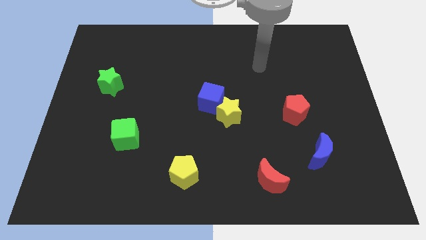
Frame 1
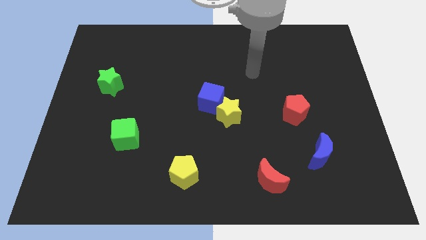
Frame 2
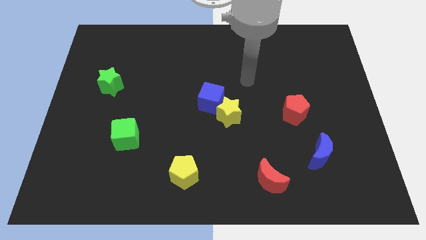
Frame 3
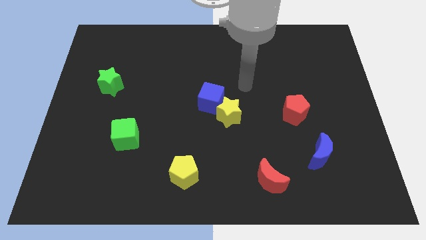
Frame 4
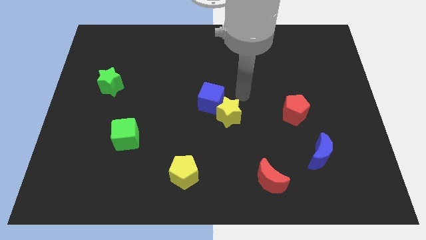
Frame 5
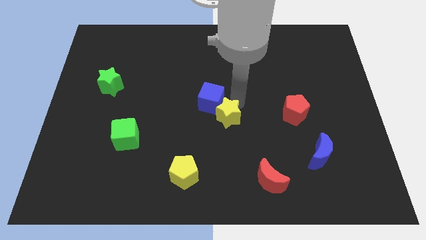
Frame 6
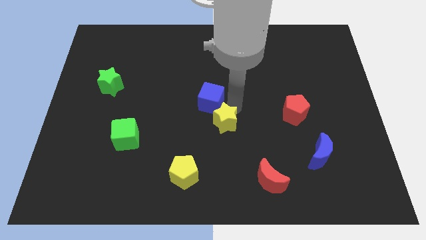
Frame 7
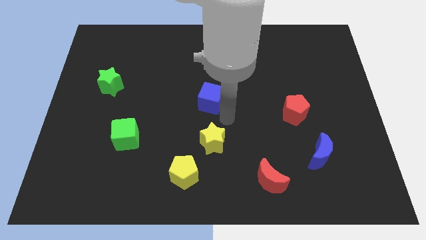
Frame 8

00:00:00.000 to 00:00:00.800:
move the blue cube away from the yellow star

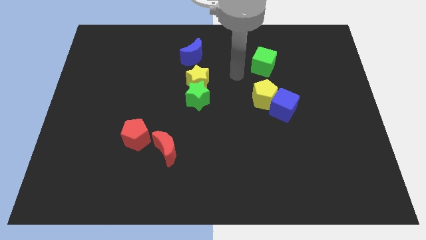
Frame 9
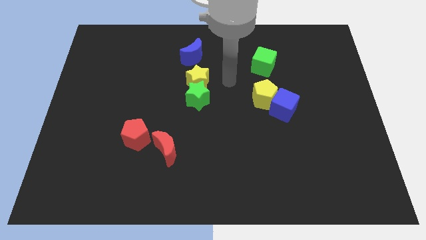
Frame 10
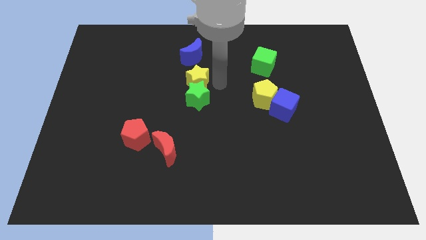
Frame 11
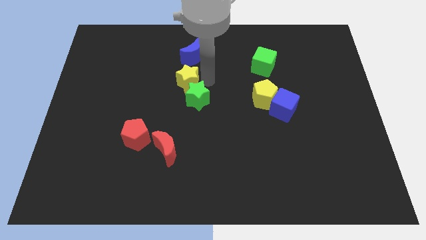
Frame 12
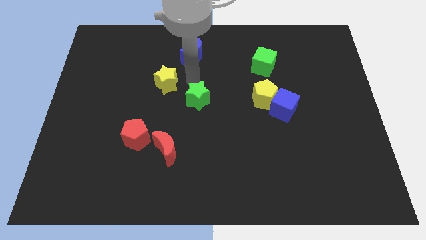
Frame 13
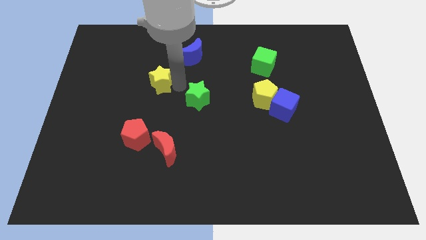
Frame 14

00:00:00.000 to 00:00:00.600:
move the green star away from the yellow star

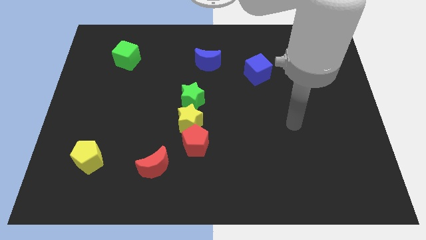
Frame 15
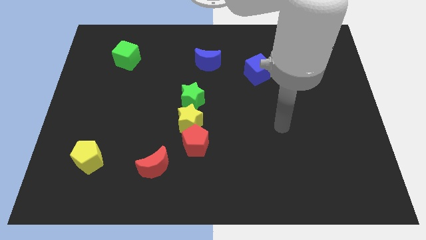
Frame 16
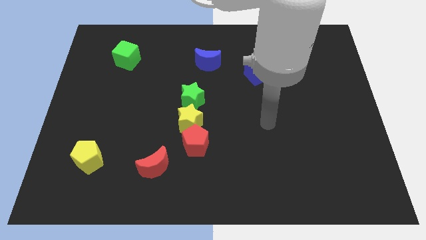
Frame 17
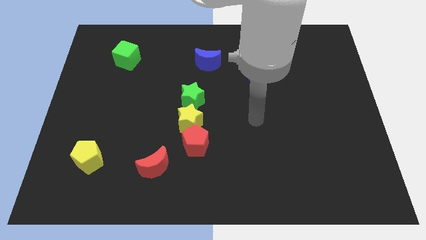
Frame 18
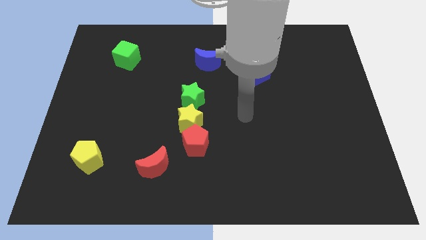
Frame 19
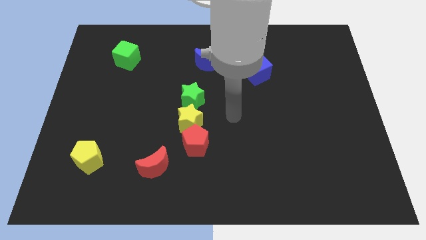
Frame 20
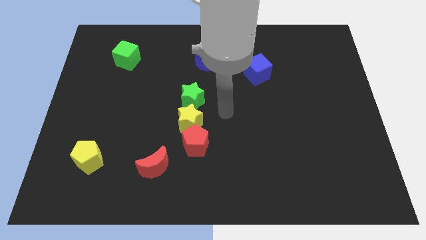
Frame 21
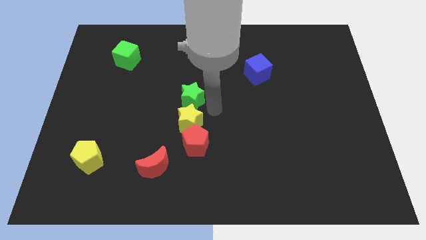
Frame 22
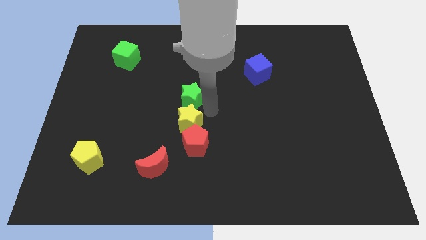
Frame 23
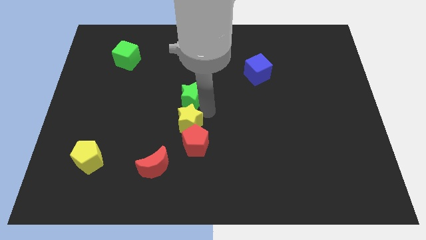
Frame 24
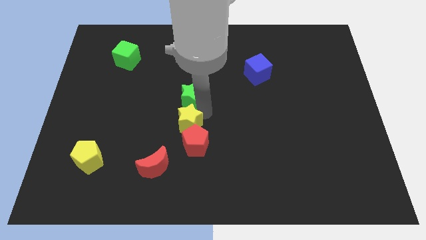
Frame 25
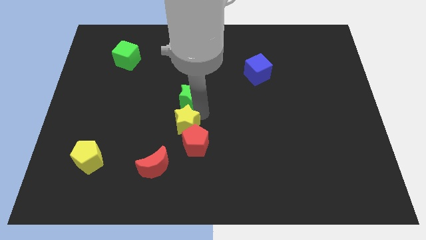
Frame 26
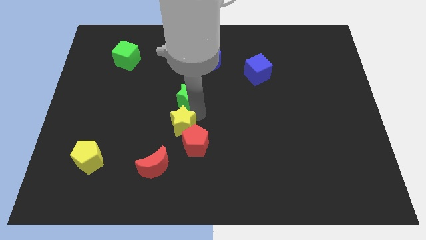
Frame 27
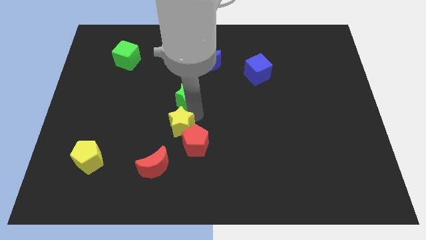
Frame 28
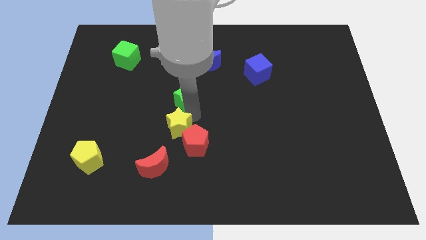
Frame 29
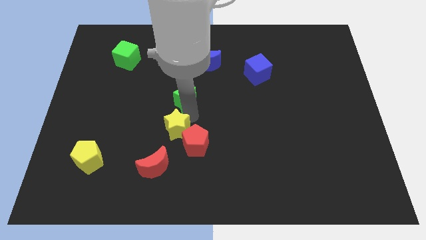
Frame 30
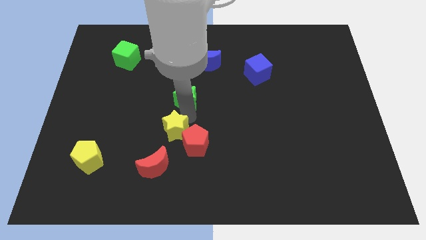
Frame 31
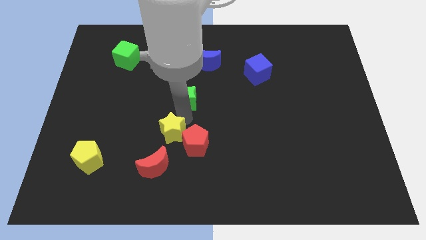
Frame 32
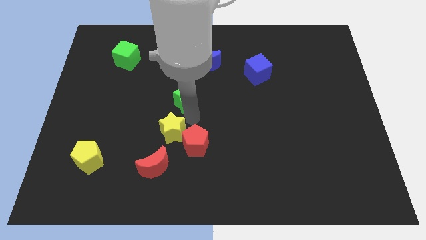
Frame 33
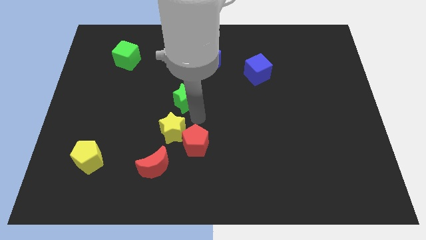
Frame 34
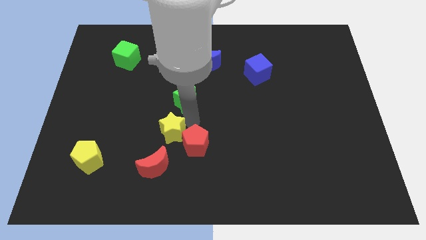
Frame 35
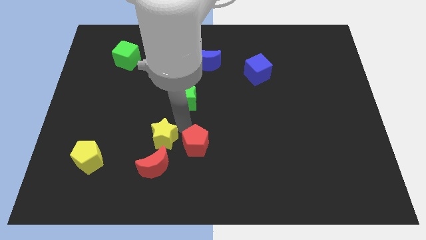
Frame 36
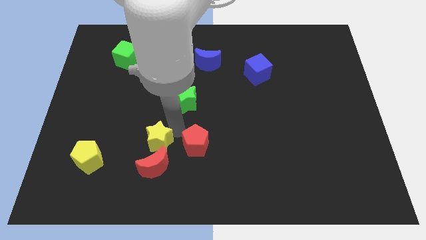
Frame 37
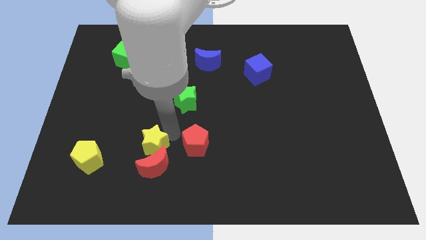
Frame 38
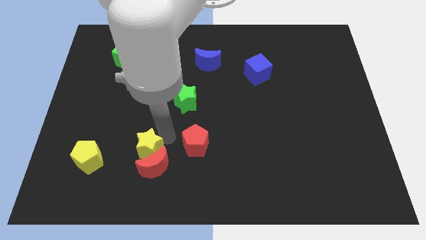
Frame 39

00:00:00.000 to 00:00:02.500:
move the yellow star away from the red pentagon and green star

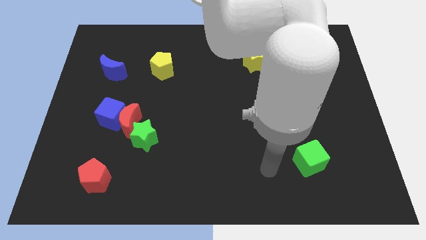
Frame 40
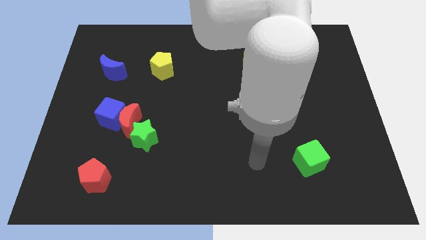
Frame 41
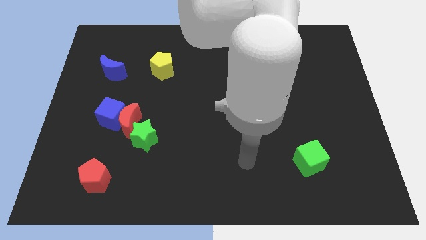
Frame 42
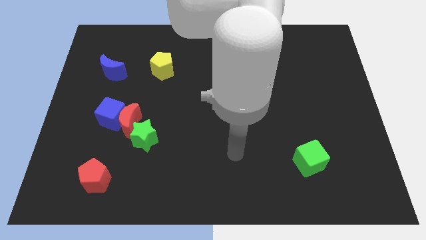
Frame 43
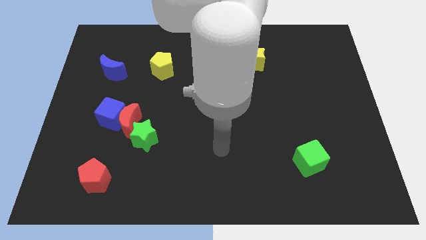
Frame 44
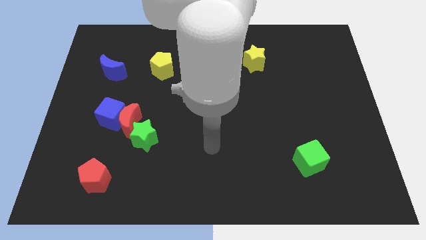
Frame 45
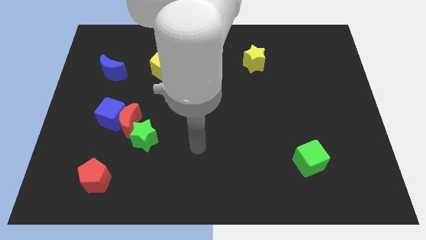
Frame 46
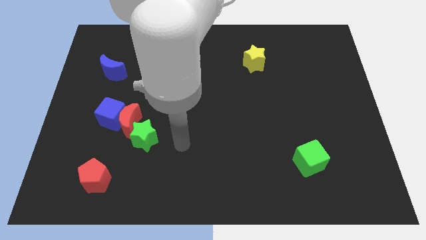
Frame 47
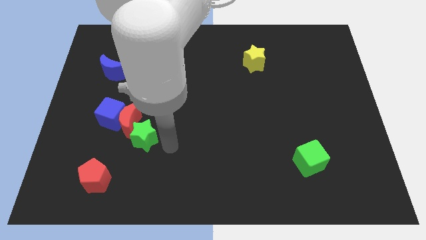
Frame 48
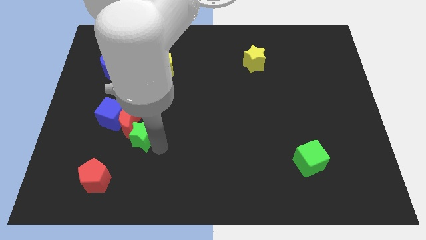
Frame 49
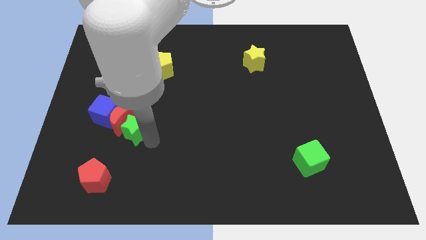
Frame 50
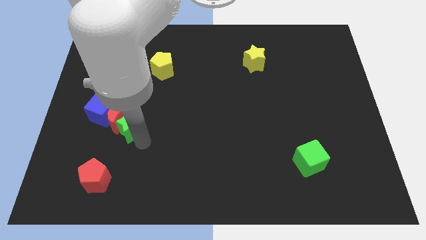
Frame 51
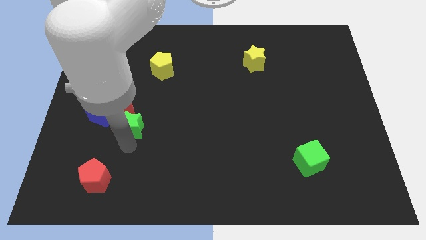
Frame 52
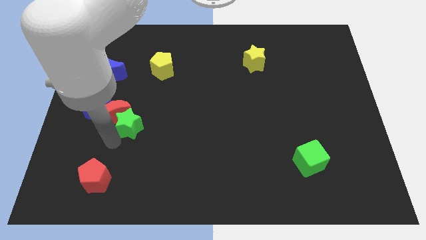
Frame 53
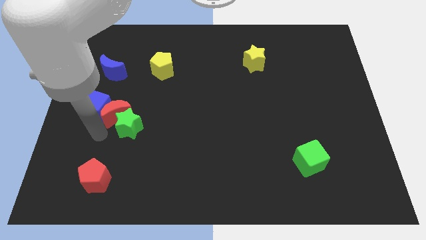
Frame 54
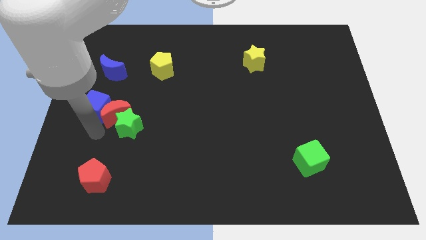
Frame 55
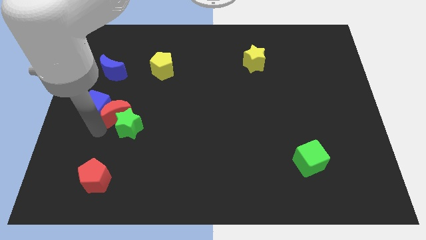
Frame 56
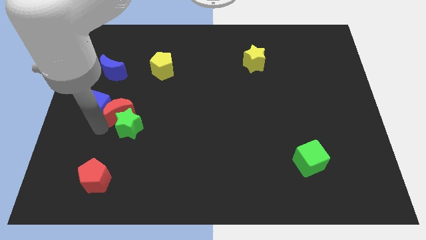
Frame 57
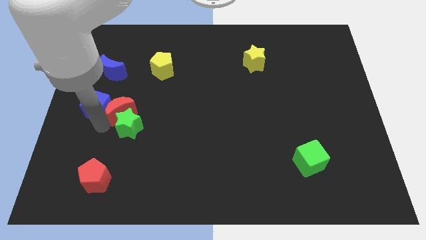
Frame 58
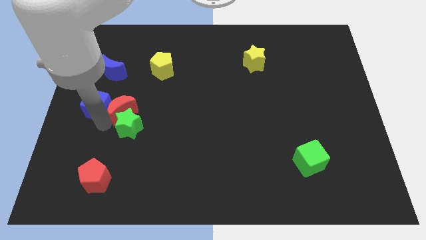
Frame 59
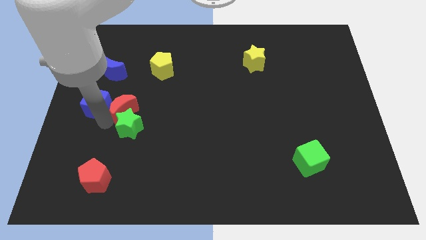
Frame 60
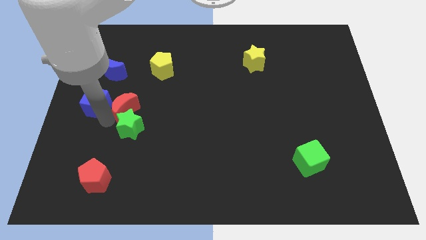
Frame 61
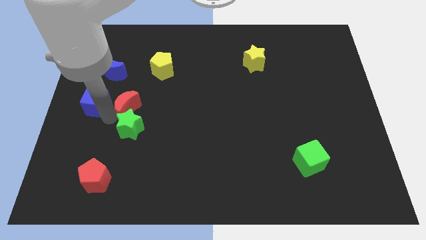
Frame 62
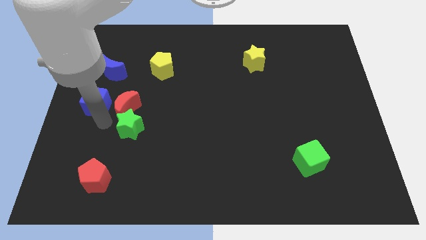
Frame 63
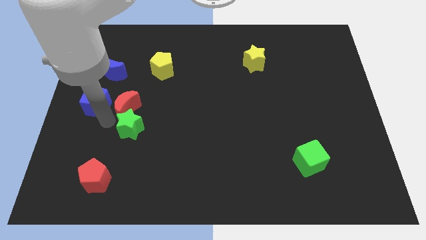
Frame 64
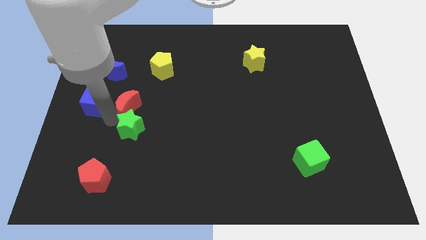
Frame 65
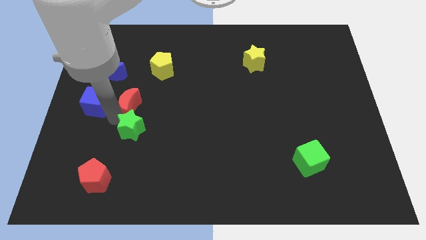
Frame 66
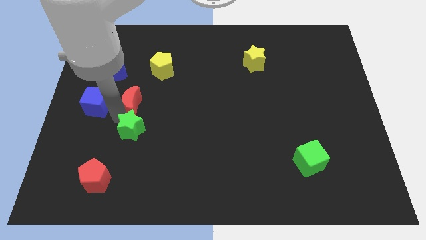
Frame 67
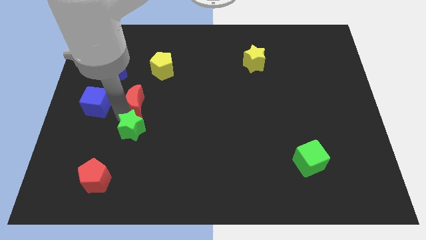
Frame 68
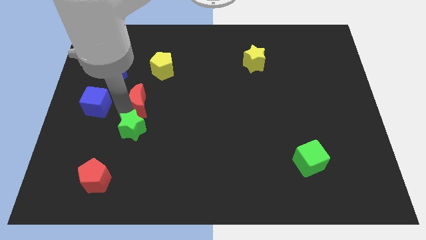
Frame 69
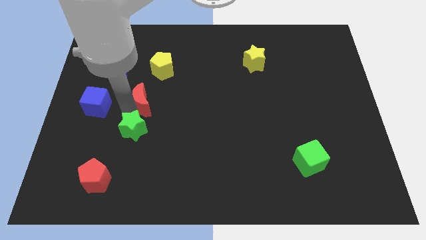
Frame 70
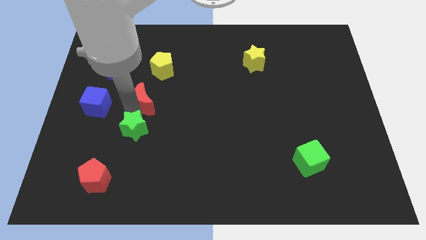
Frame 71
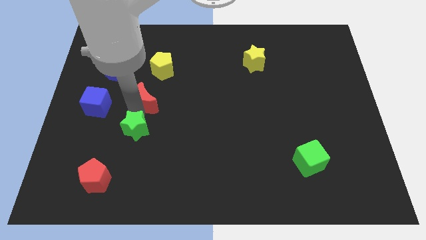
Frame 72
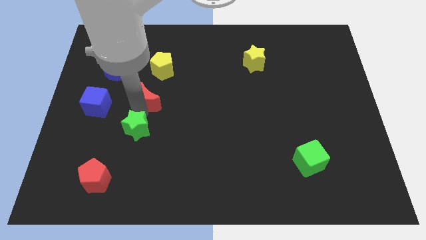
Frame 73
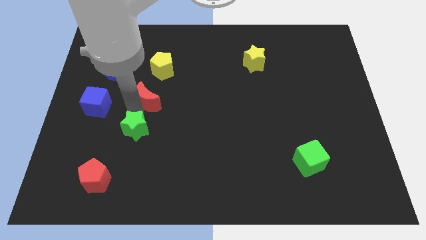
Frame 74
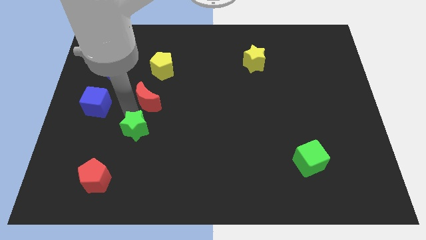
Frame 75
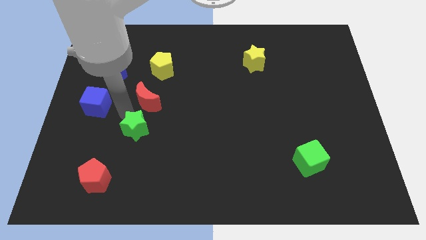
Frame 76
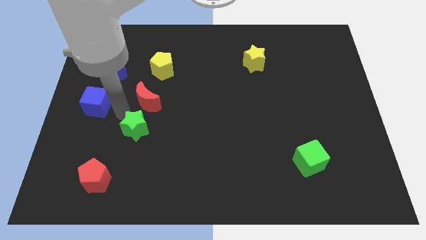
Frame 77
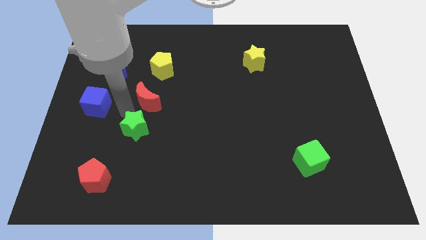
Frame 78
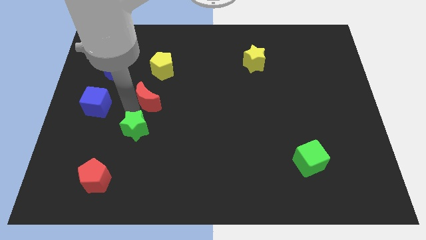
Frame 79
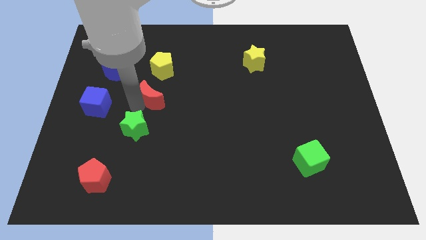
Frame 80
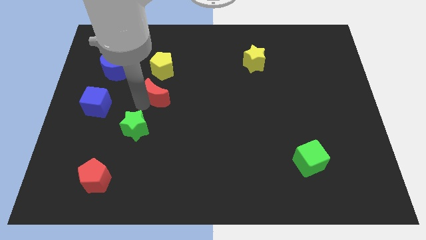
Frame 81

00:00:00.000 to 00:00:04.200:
pull the red moon apart from the blue cube and green star

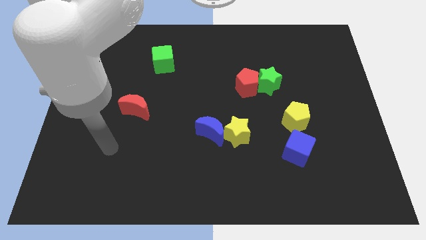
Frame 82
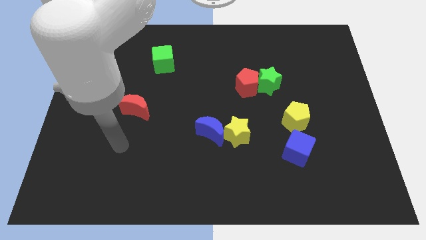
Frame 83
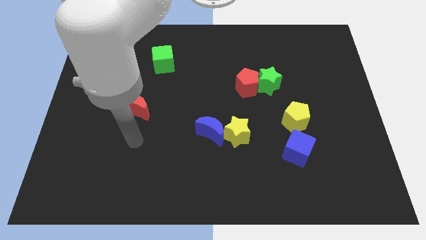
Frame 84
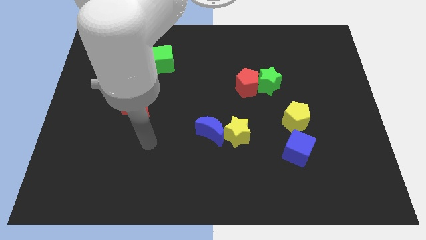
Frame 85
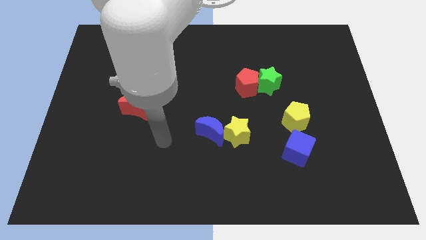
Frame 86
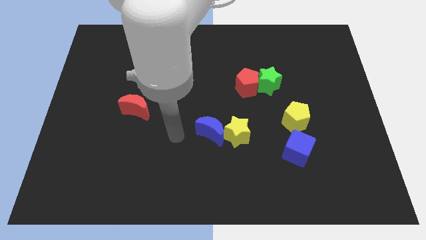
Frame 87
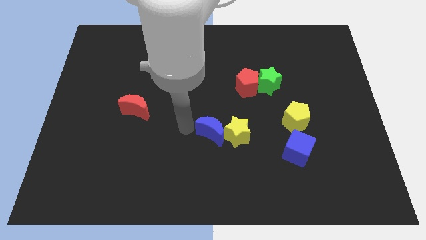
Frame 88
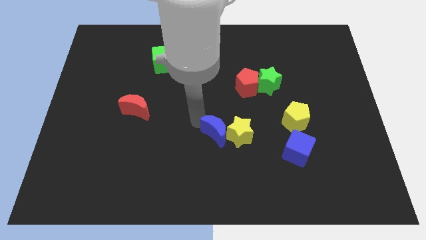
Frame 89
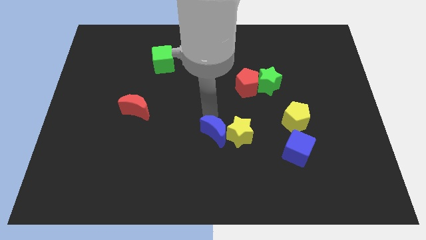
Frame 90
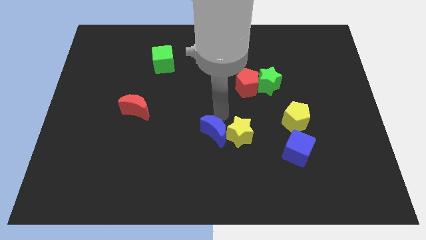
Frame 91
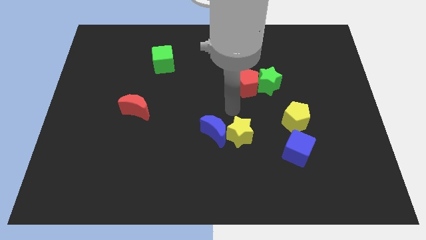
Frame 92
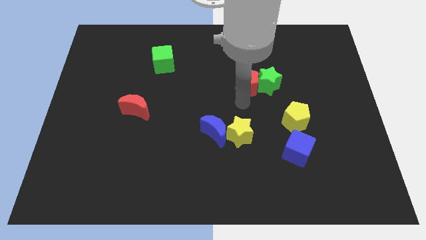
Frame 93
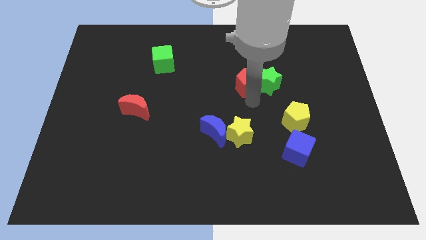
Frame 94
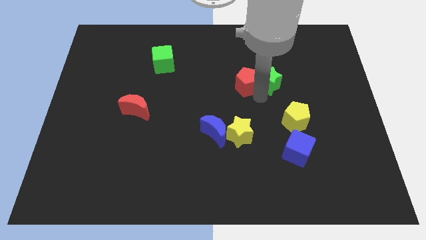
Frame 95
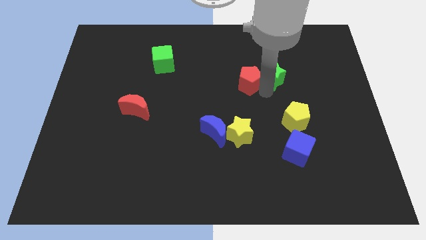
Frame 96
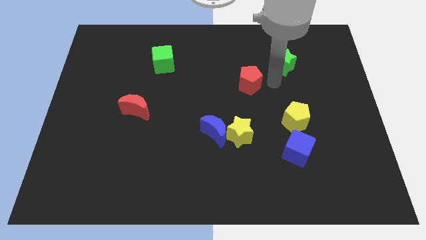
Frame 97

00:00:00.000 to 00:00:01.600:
pull the red pentagon apart from the green star
